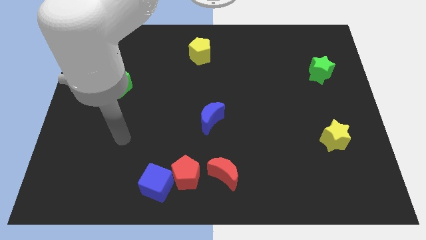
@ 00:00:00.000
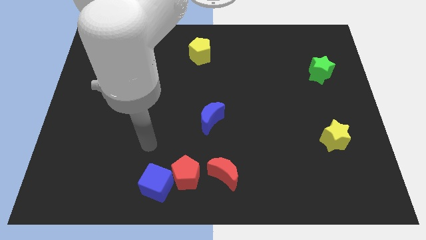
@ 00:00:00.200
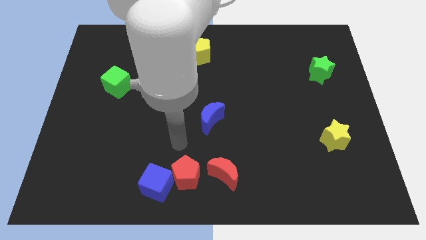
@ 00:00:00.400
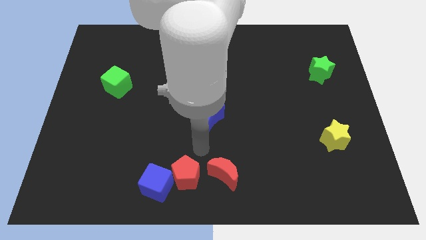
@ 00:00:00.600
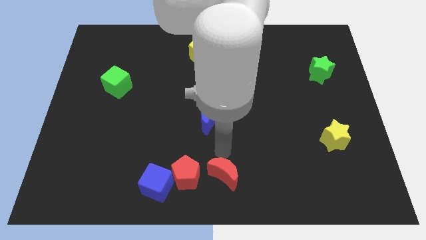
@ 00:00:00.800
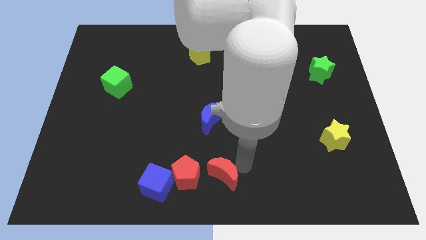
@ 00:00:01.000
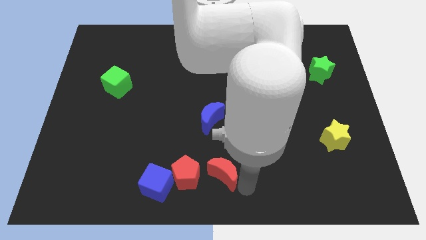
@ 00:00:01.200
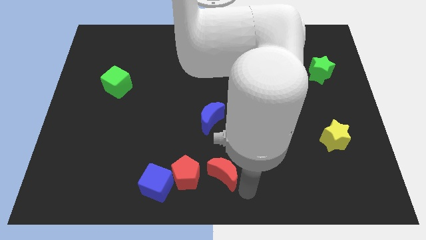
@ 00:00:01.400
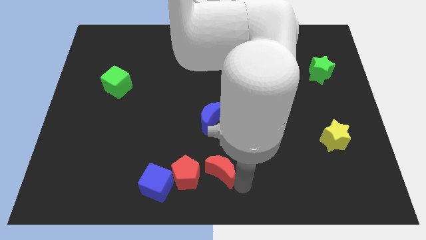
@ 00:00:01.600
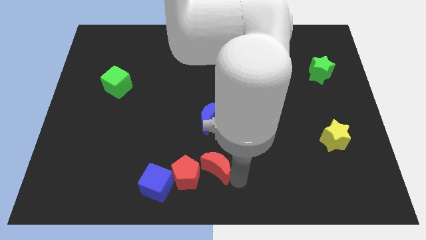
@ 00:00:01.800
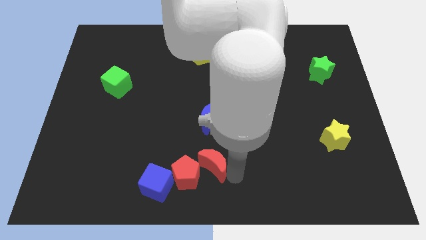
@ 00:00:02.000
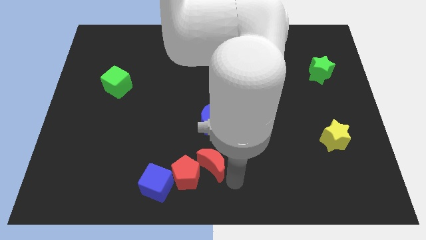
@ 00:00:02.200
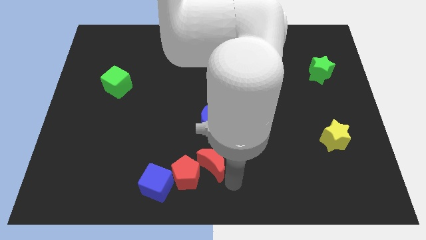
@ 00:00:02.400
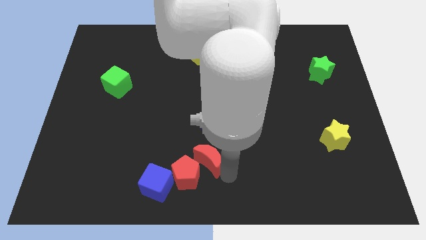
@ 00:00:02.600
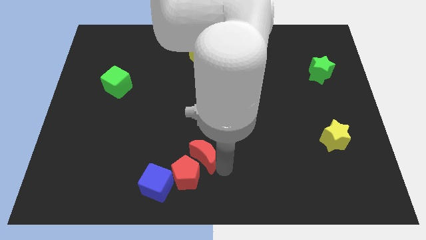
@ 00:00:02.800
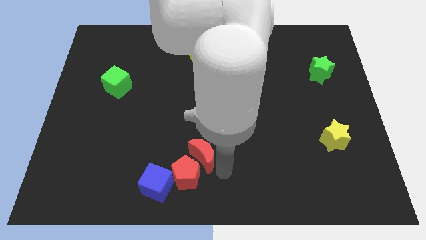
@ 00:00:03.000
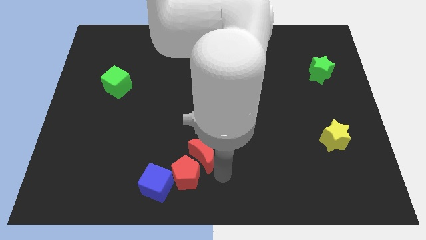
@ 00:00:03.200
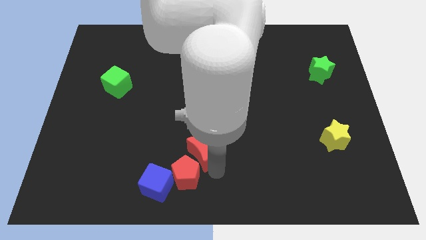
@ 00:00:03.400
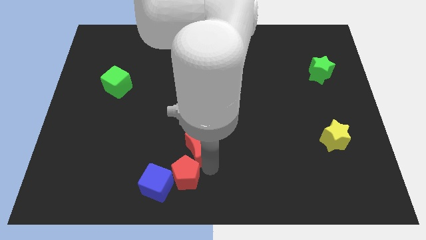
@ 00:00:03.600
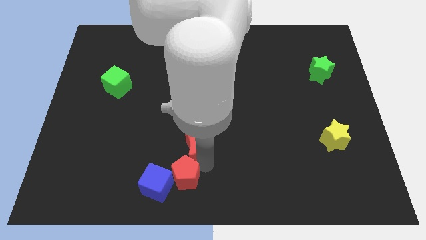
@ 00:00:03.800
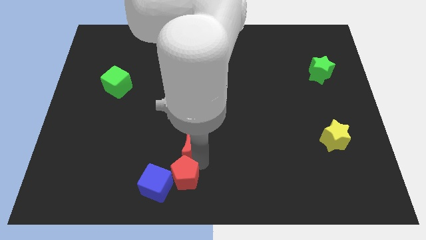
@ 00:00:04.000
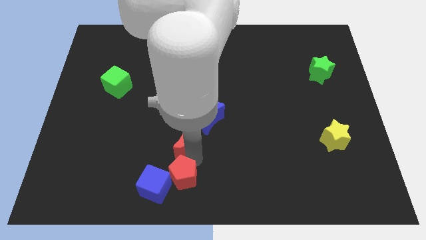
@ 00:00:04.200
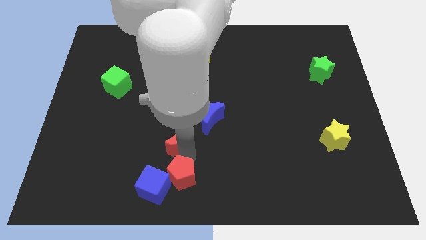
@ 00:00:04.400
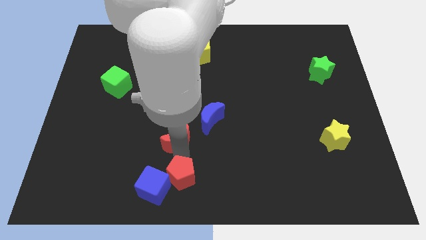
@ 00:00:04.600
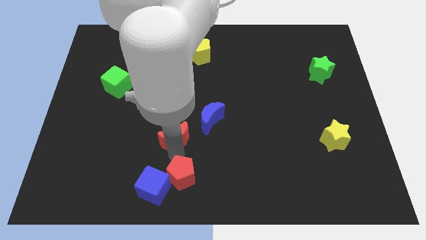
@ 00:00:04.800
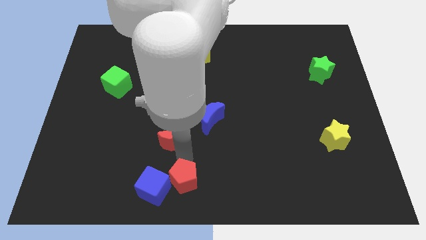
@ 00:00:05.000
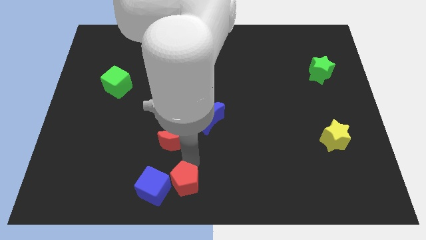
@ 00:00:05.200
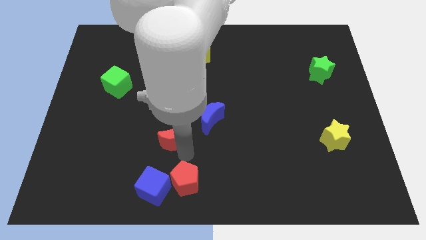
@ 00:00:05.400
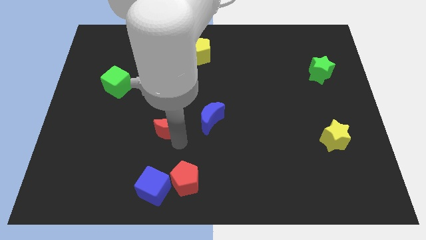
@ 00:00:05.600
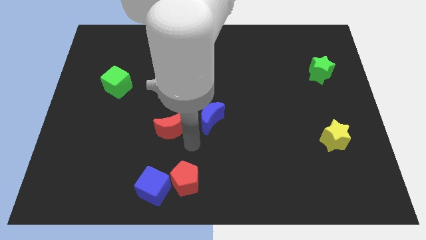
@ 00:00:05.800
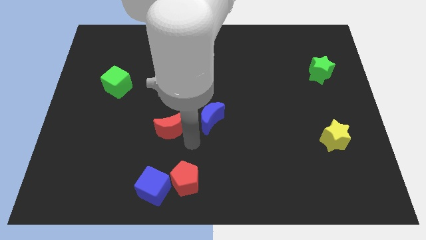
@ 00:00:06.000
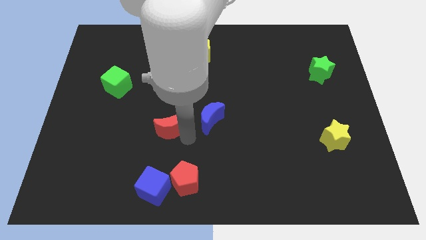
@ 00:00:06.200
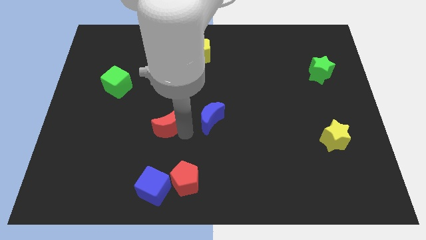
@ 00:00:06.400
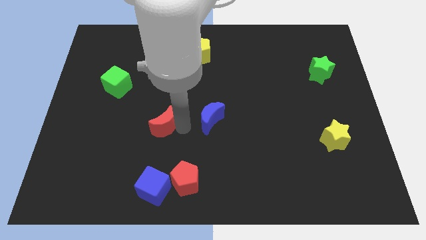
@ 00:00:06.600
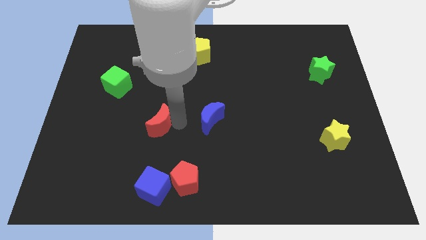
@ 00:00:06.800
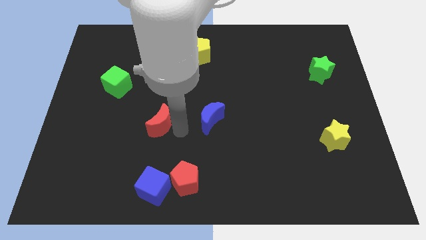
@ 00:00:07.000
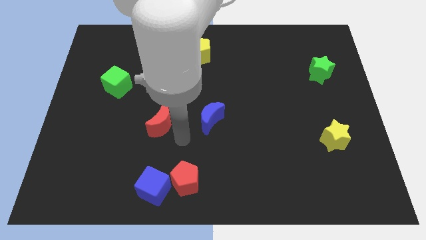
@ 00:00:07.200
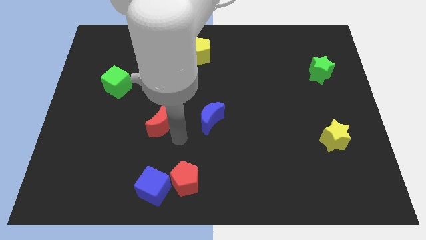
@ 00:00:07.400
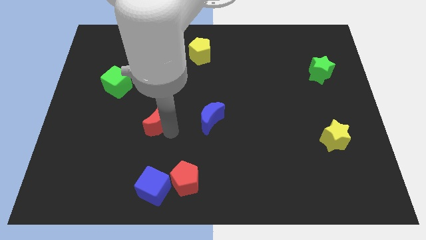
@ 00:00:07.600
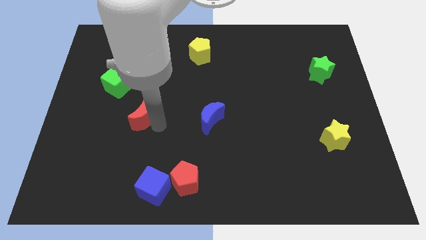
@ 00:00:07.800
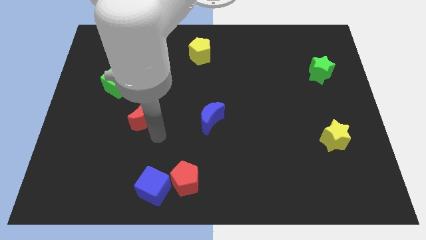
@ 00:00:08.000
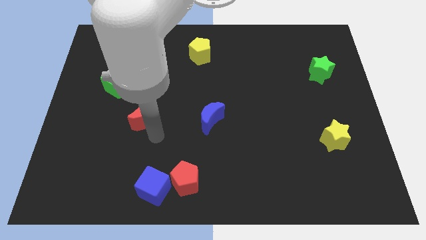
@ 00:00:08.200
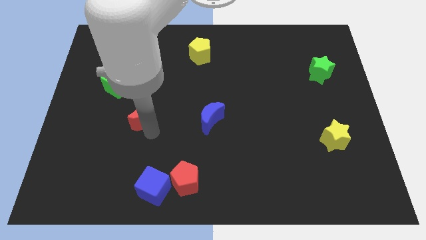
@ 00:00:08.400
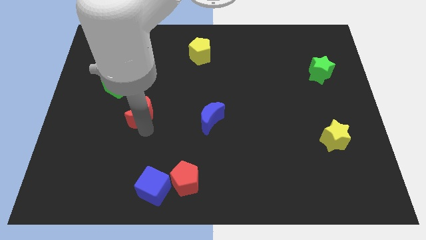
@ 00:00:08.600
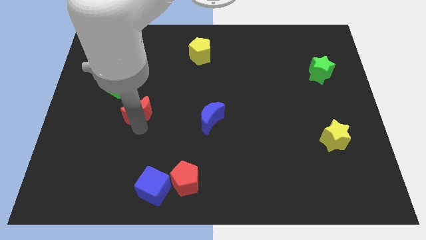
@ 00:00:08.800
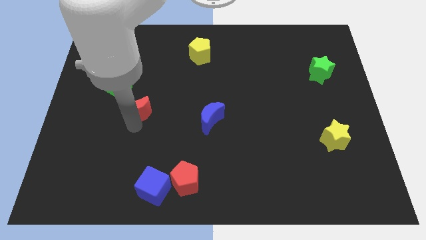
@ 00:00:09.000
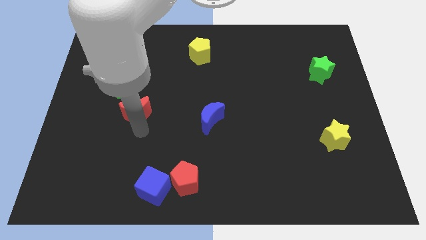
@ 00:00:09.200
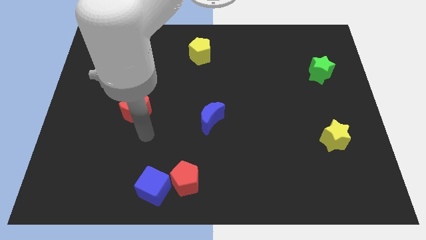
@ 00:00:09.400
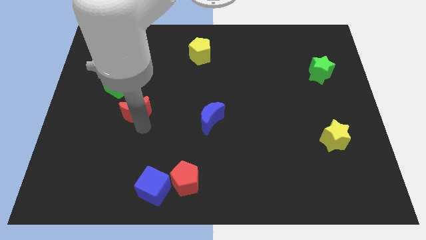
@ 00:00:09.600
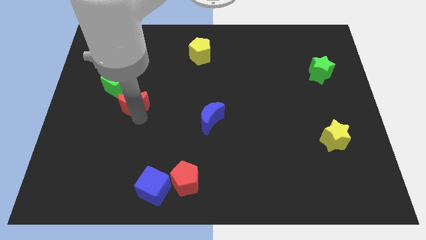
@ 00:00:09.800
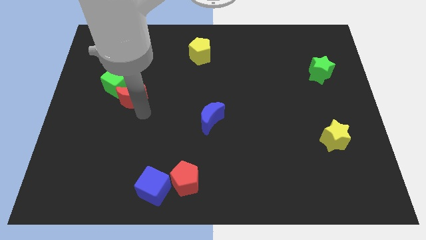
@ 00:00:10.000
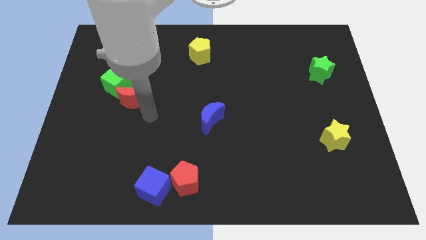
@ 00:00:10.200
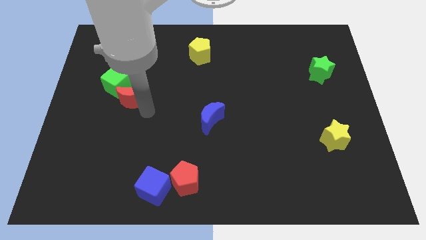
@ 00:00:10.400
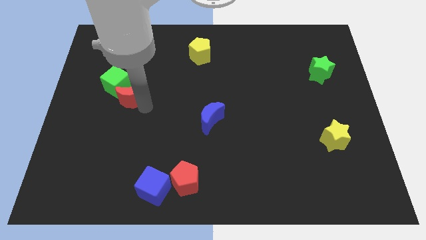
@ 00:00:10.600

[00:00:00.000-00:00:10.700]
move the red moon next to the green cube

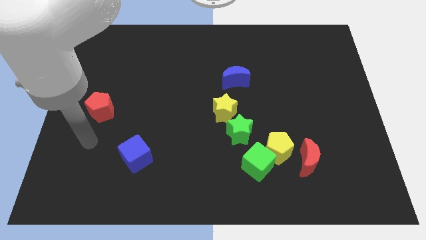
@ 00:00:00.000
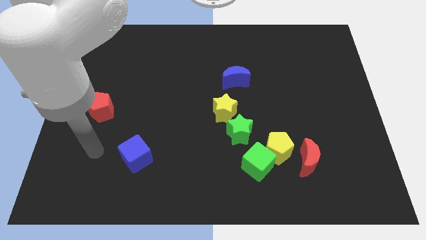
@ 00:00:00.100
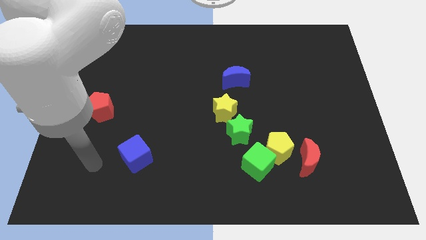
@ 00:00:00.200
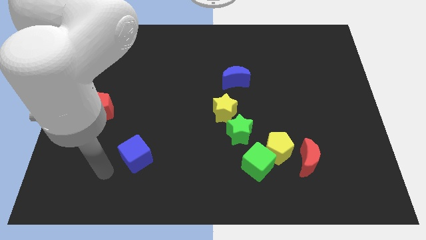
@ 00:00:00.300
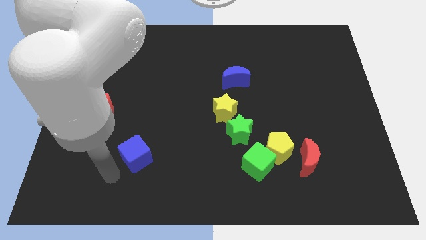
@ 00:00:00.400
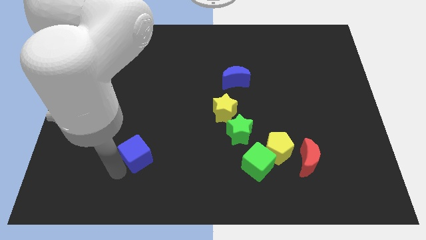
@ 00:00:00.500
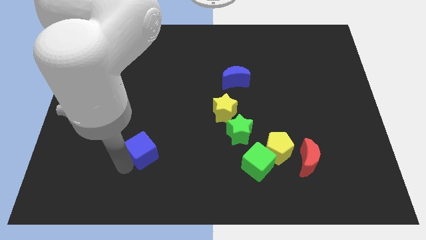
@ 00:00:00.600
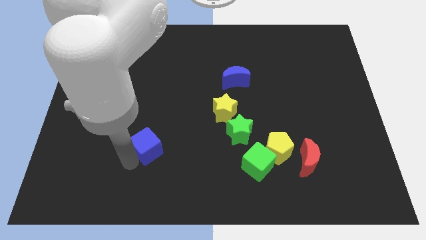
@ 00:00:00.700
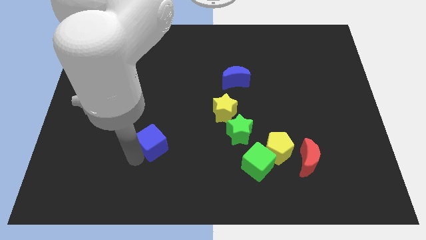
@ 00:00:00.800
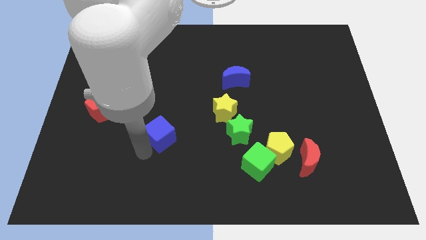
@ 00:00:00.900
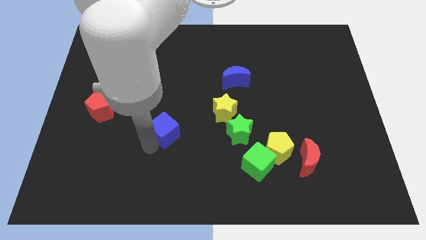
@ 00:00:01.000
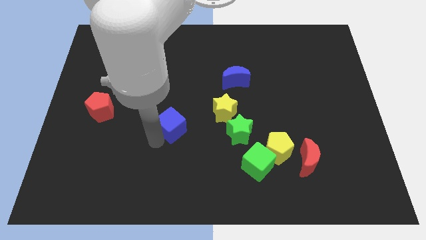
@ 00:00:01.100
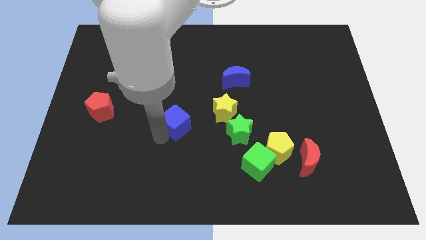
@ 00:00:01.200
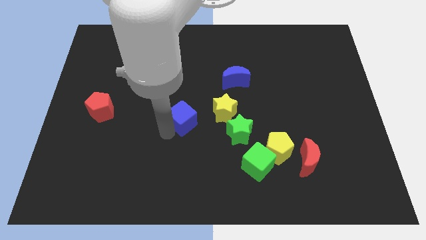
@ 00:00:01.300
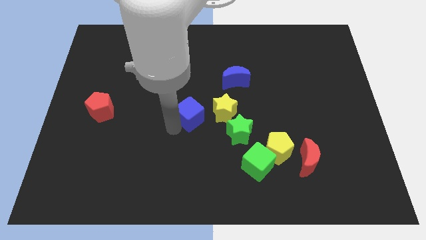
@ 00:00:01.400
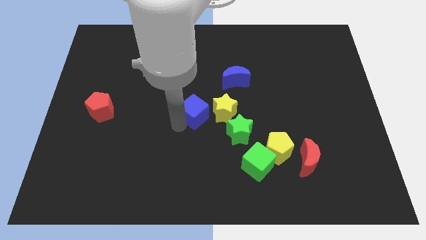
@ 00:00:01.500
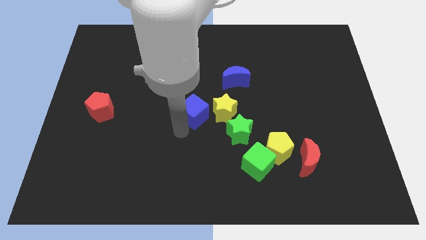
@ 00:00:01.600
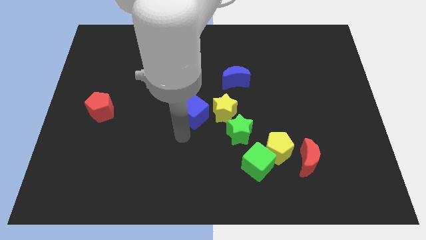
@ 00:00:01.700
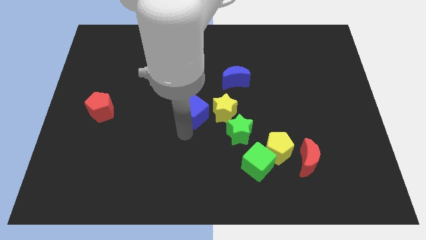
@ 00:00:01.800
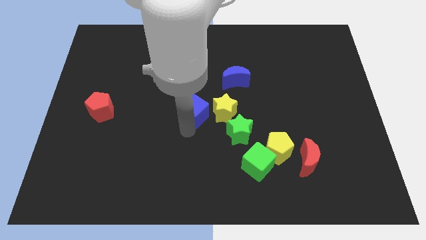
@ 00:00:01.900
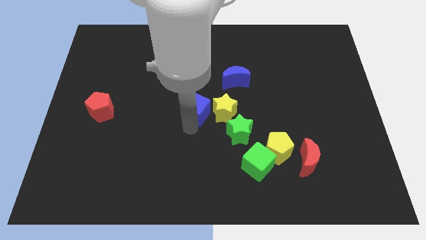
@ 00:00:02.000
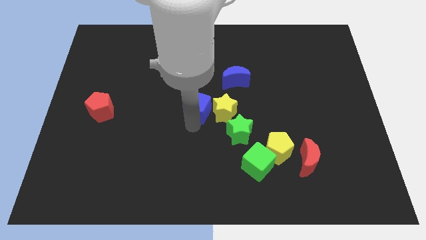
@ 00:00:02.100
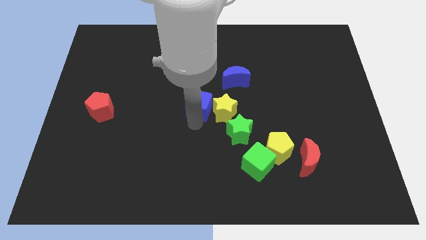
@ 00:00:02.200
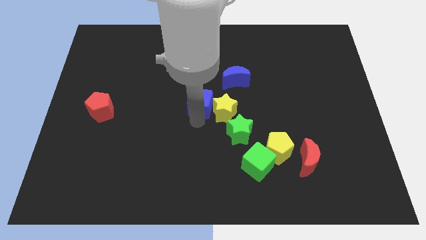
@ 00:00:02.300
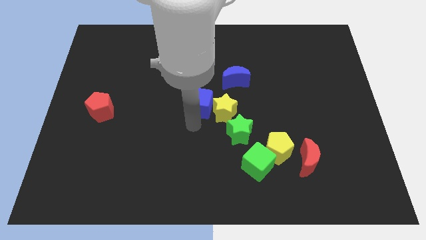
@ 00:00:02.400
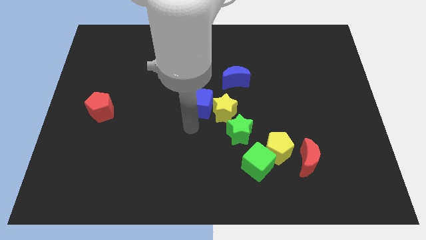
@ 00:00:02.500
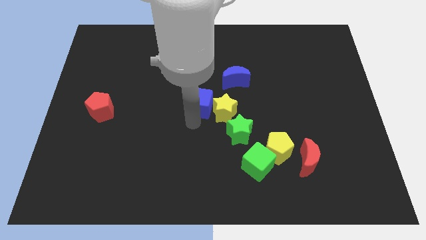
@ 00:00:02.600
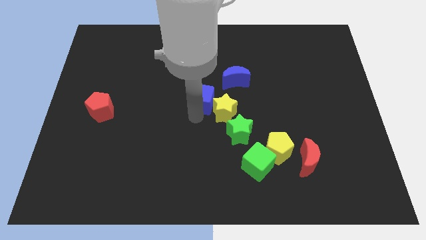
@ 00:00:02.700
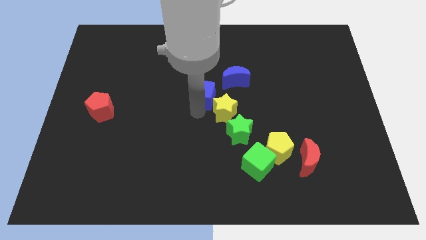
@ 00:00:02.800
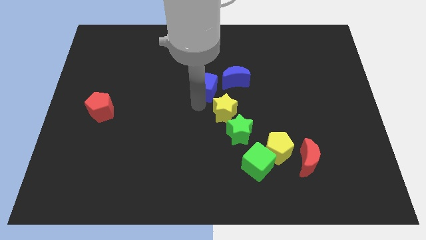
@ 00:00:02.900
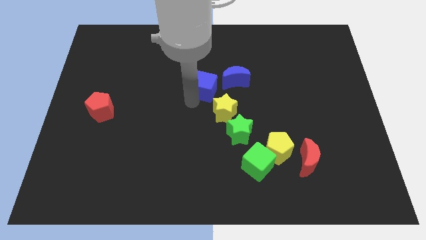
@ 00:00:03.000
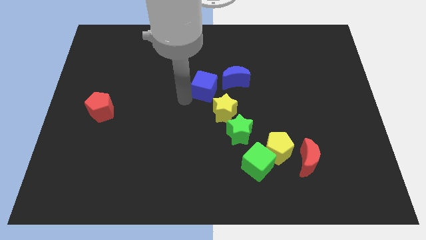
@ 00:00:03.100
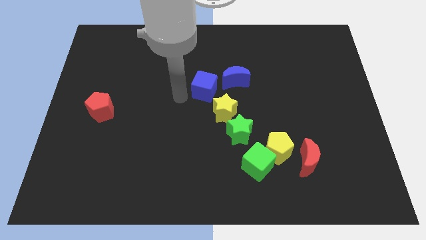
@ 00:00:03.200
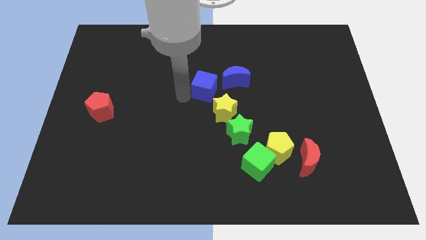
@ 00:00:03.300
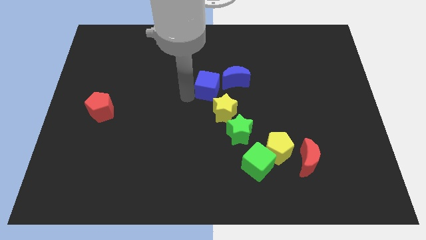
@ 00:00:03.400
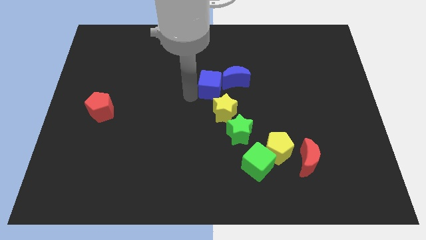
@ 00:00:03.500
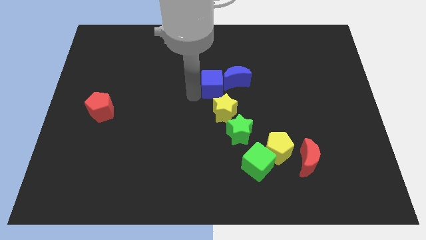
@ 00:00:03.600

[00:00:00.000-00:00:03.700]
put the blue cube to the blue moon
